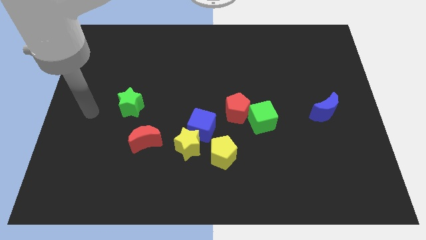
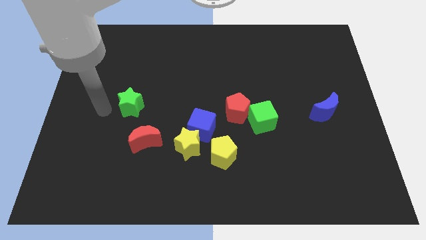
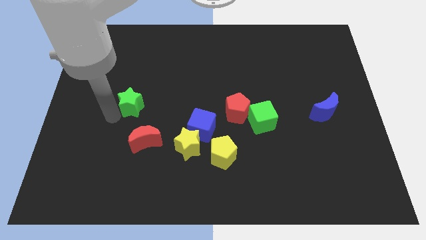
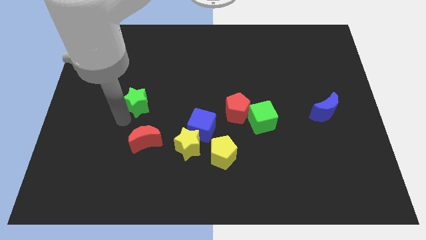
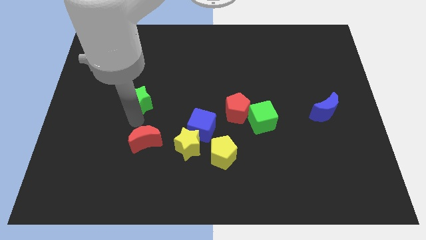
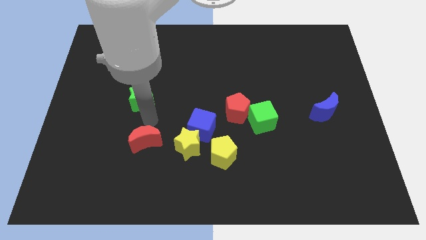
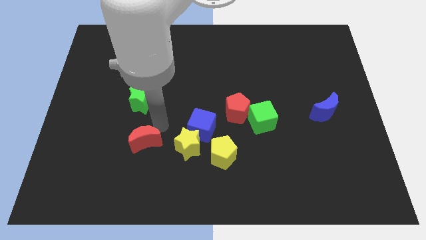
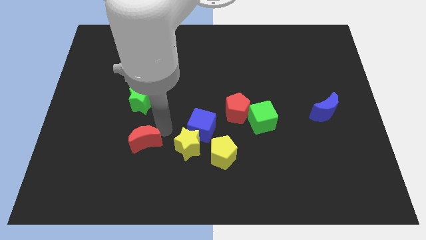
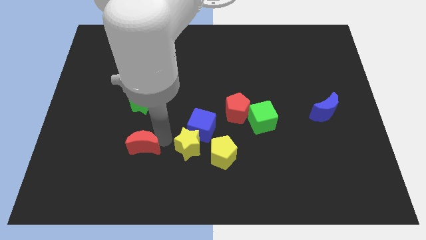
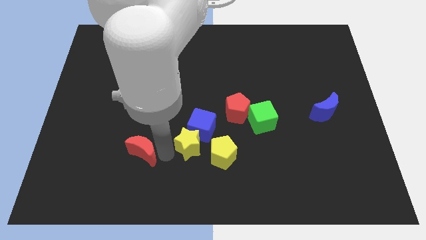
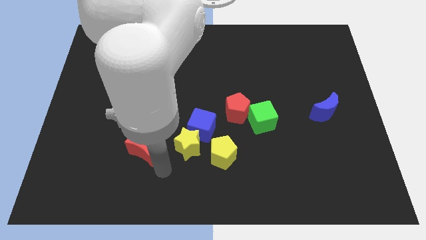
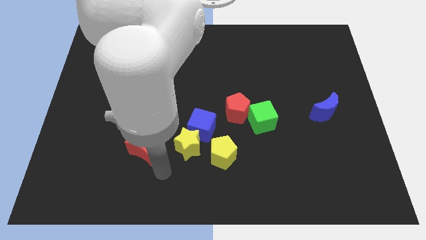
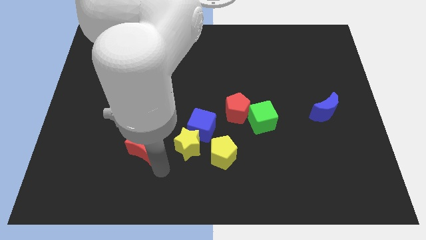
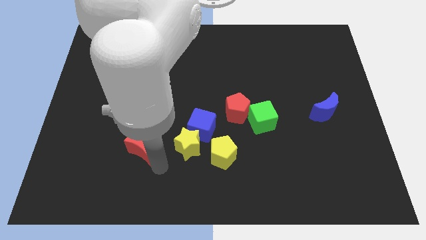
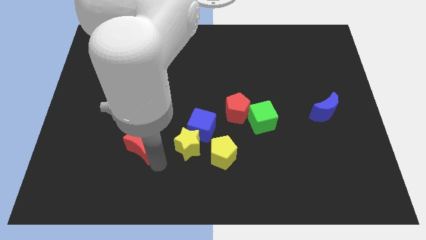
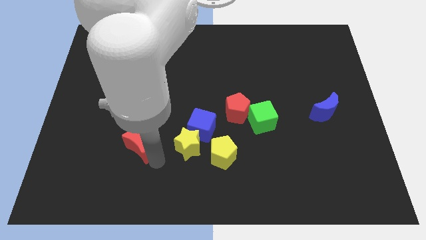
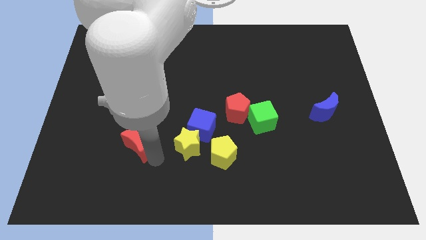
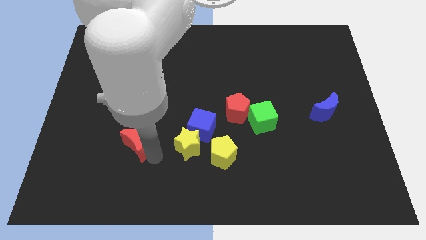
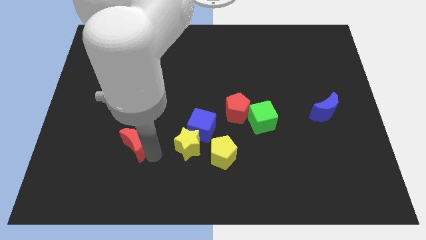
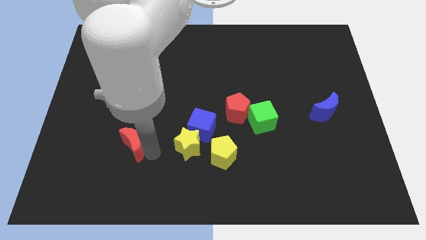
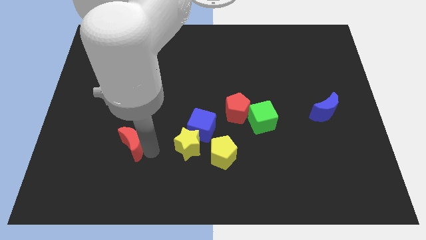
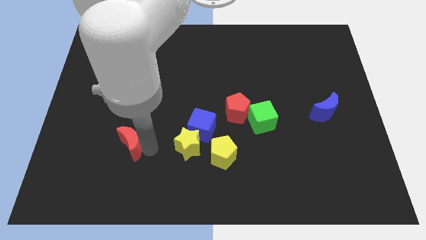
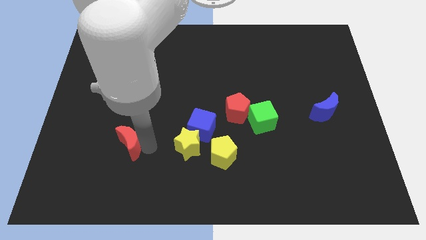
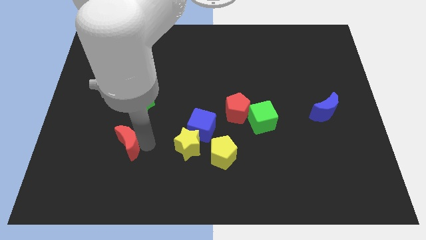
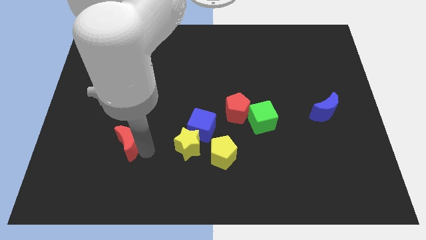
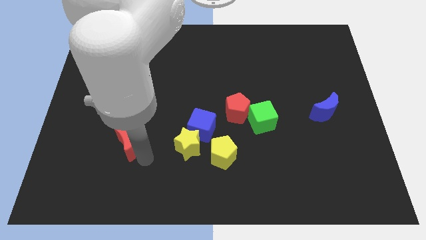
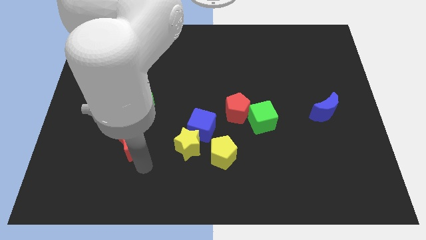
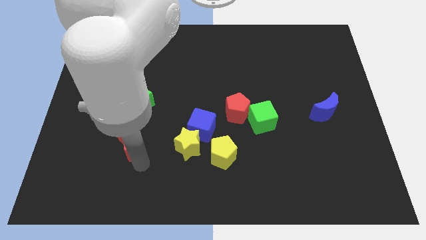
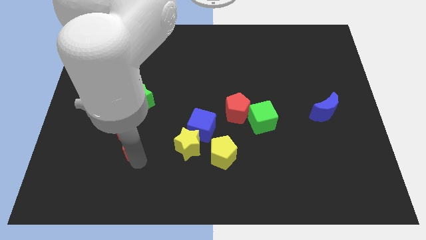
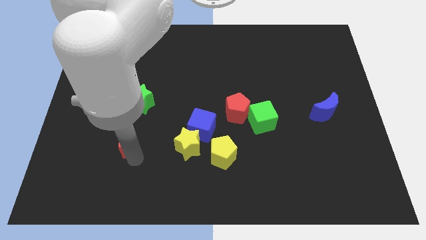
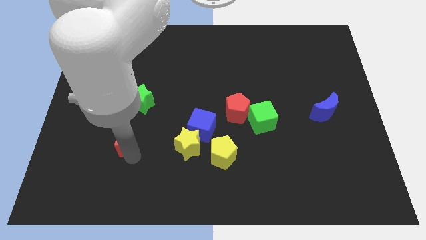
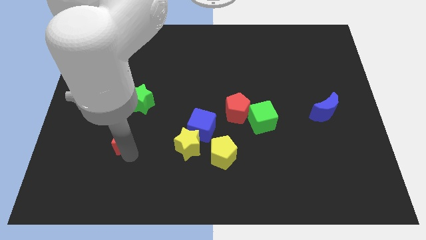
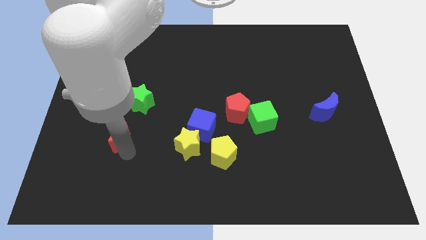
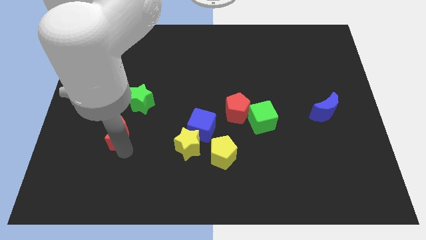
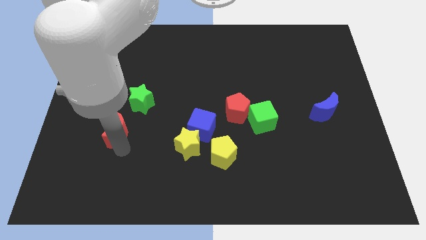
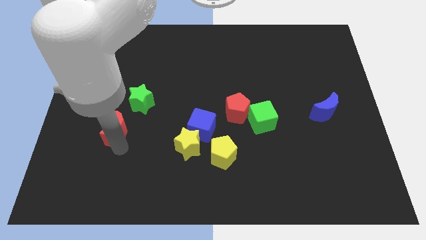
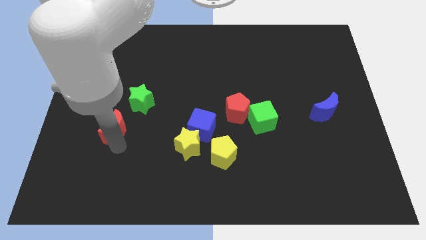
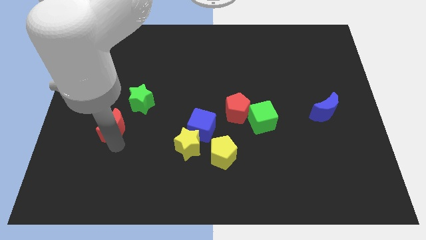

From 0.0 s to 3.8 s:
slide the red moon diagonally upwards and left a bit

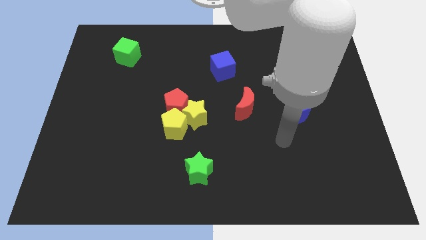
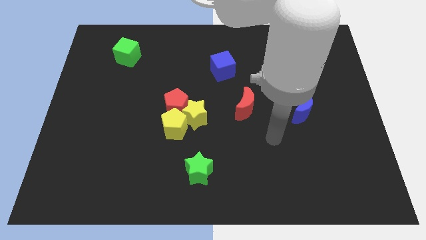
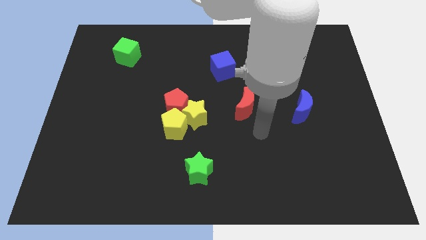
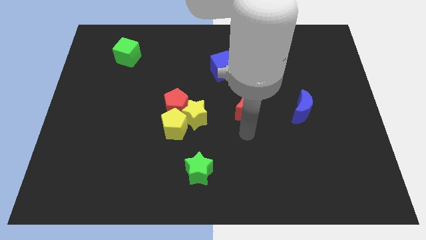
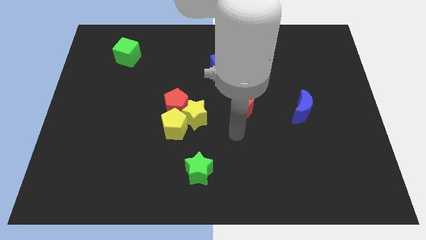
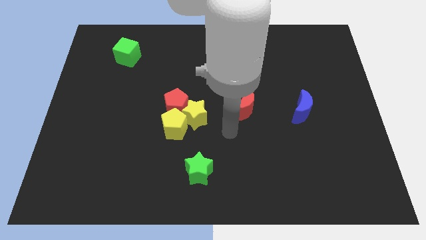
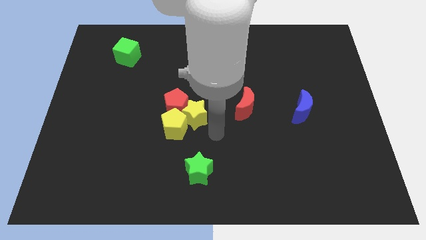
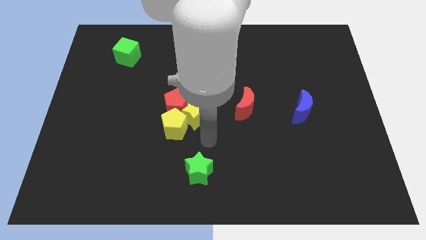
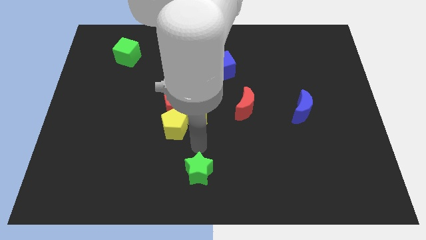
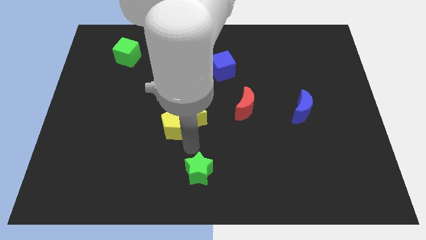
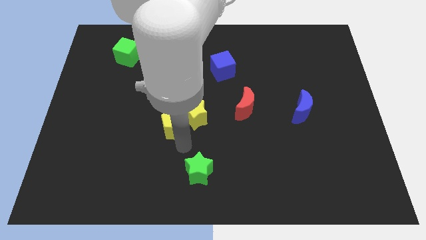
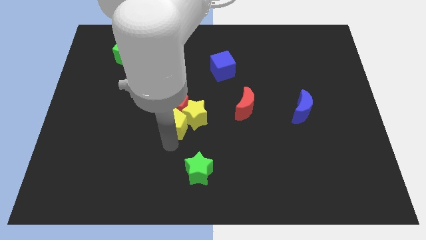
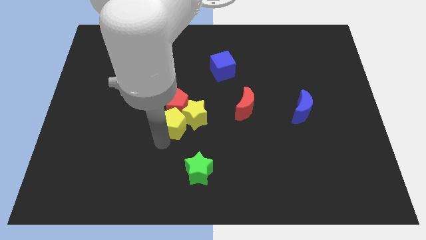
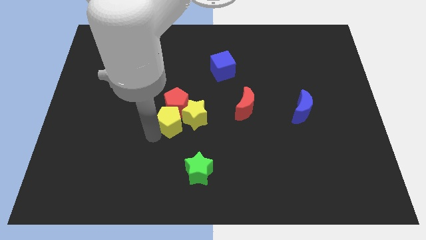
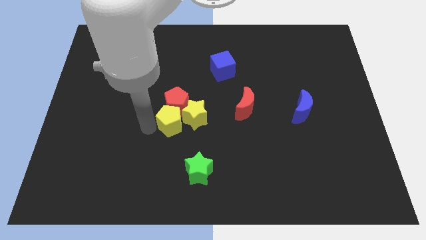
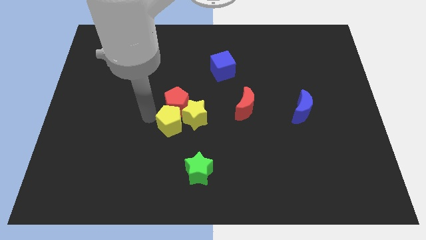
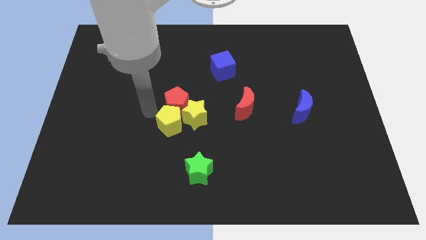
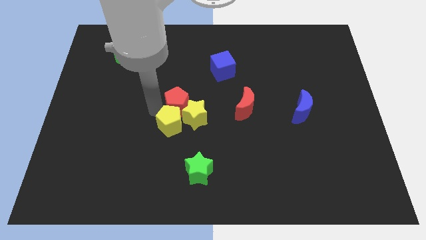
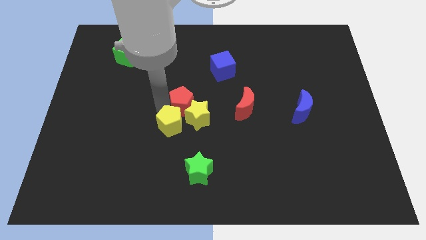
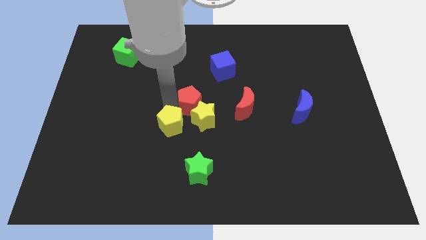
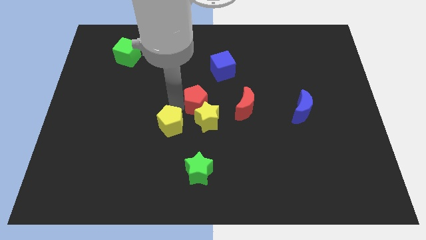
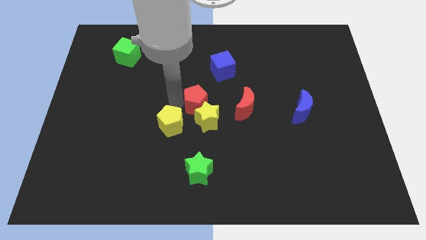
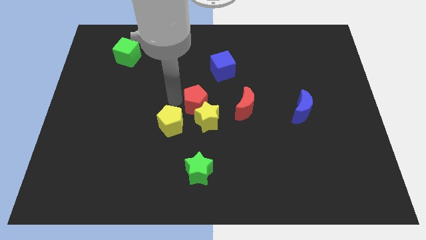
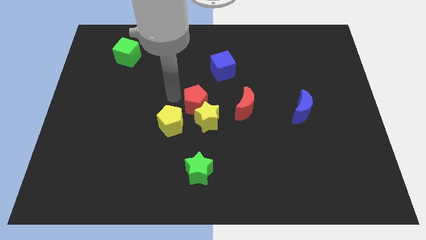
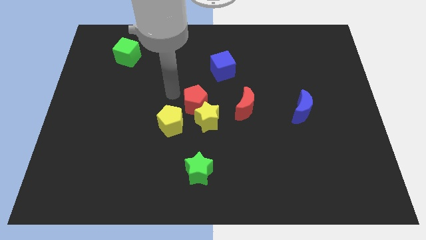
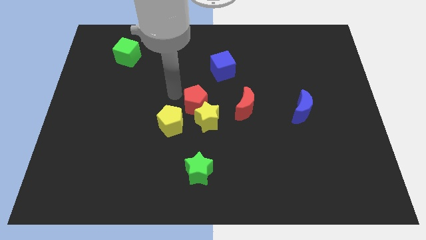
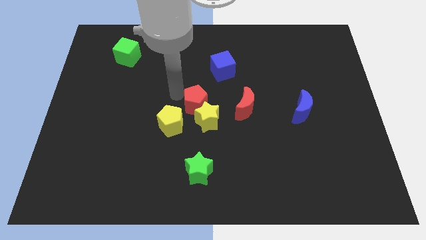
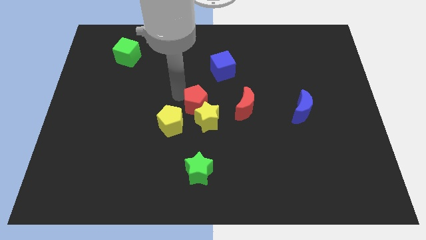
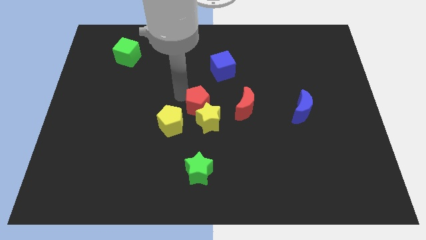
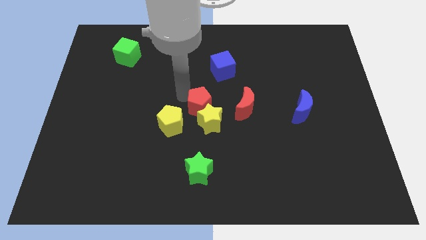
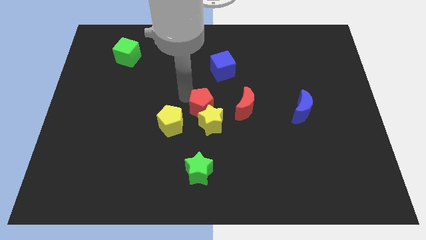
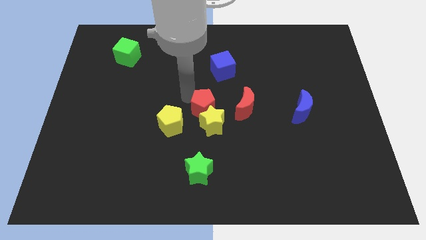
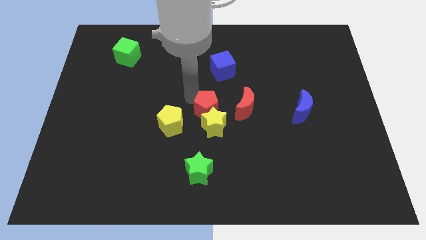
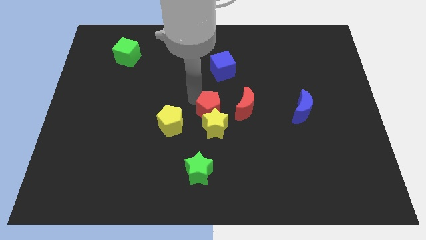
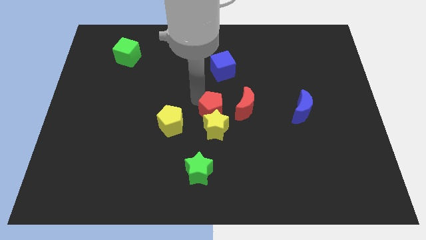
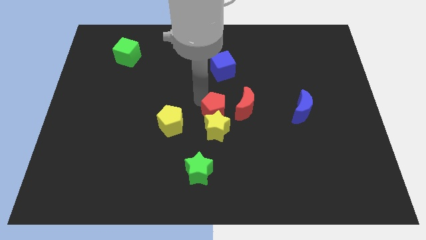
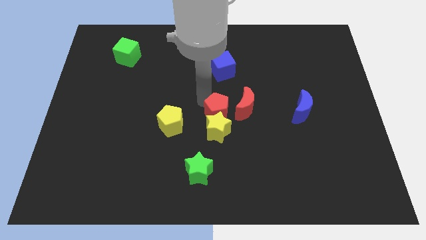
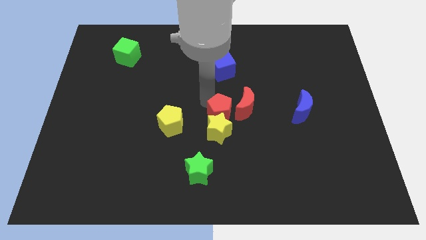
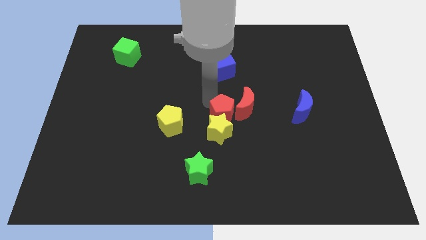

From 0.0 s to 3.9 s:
slide the red pentagon a bit down and to the right

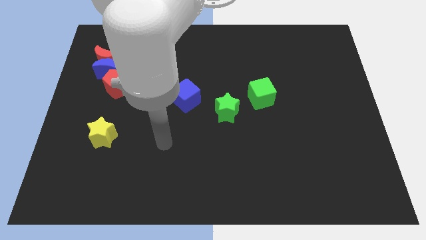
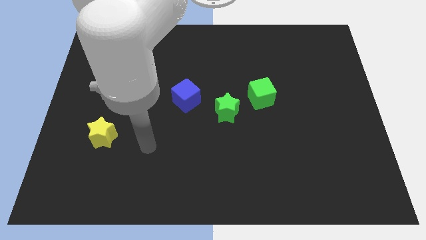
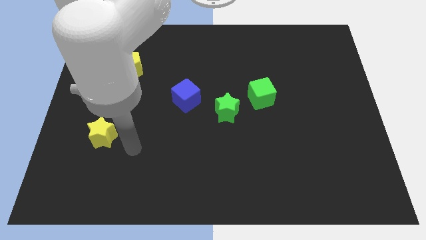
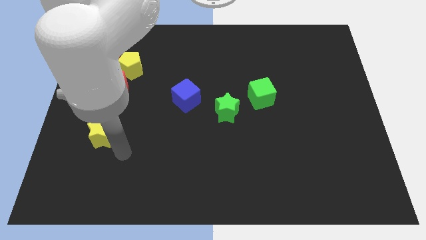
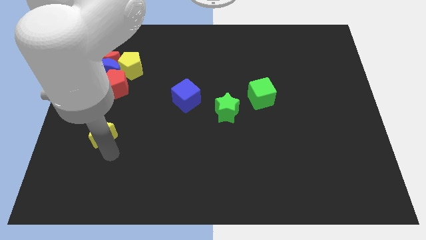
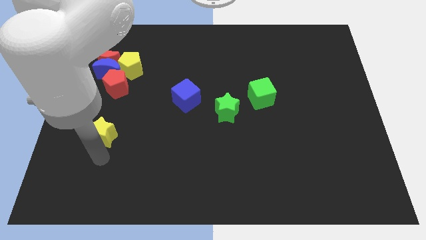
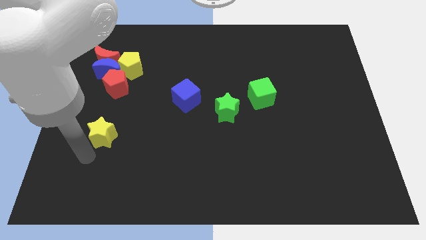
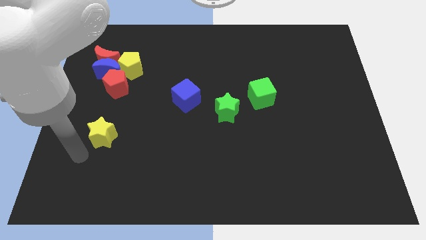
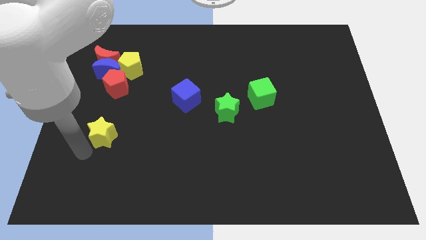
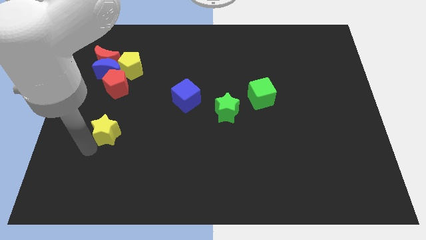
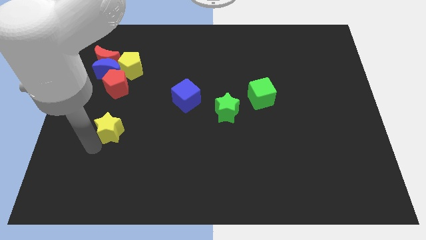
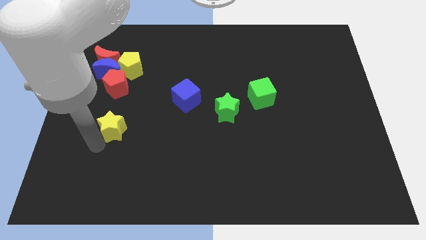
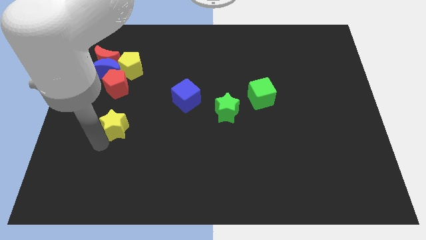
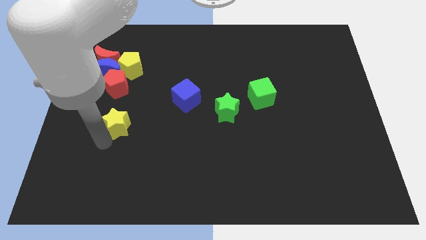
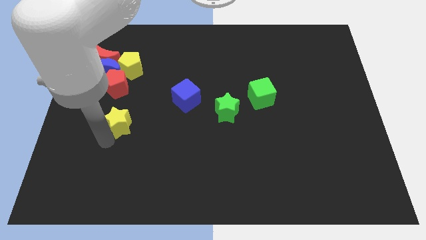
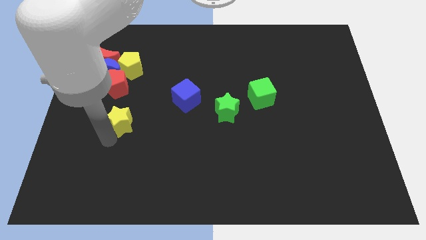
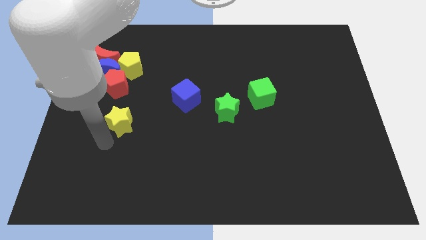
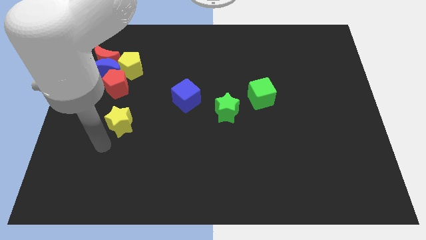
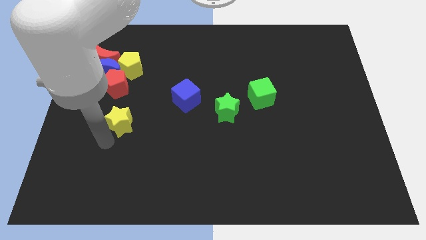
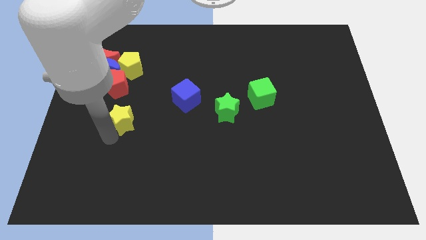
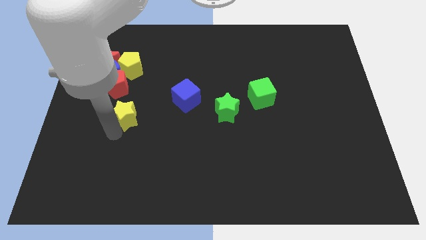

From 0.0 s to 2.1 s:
slide the yellow star diagonally up and right a bit
